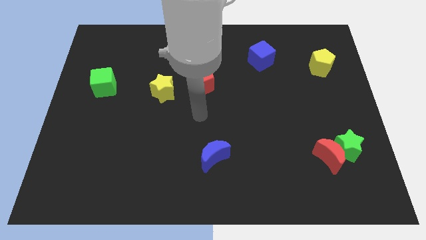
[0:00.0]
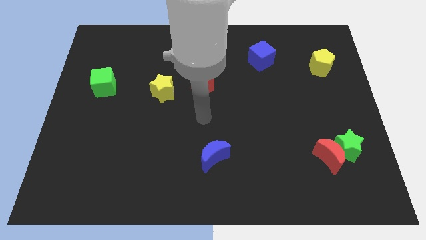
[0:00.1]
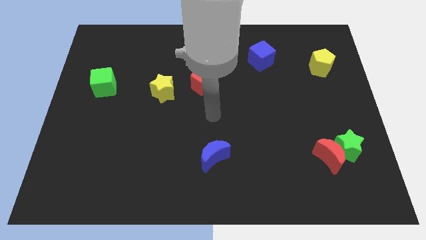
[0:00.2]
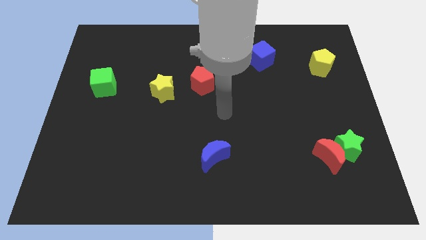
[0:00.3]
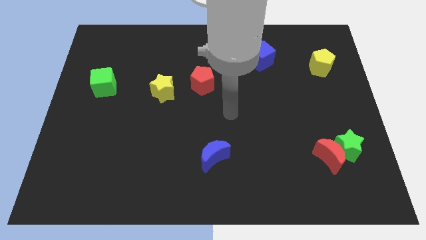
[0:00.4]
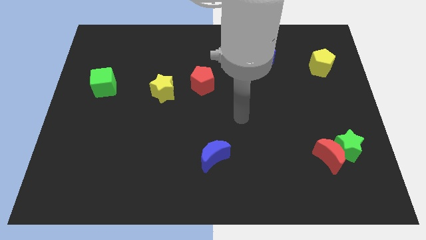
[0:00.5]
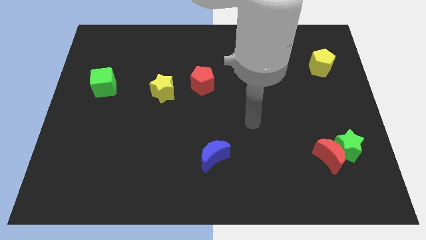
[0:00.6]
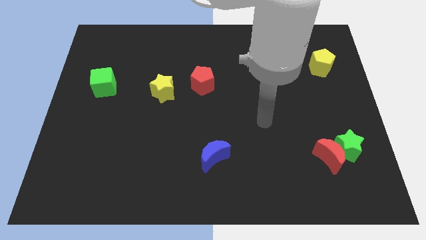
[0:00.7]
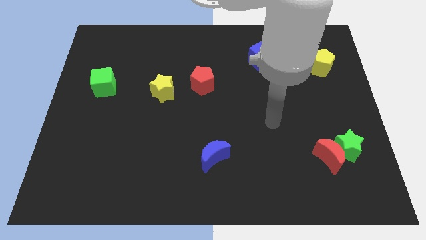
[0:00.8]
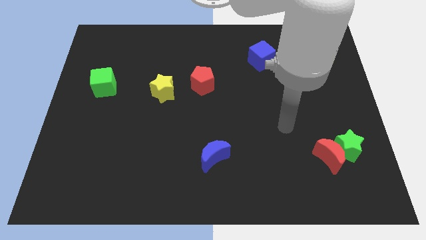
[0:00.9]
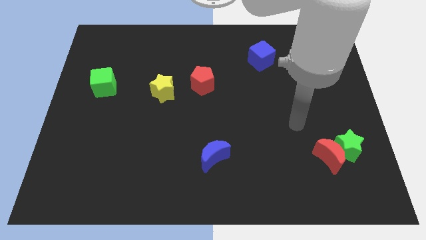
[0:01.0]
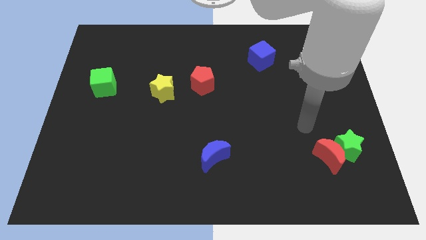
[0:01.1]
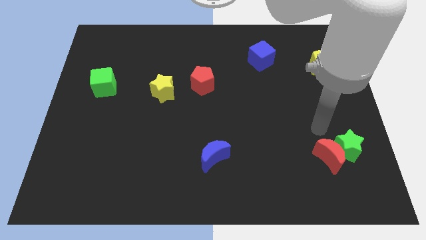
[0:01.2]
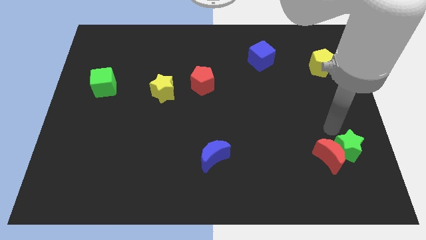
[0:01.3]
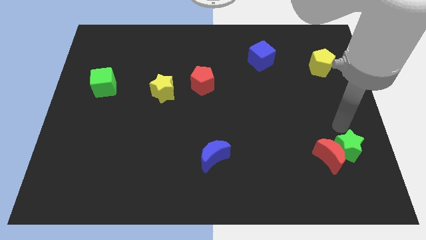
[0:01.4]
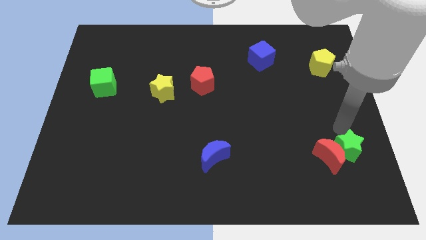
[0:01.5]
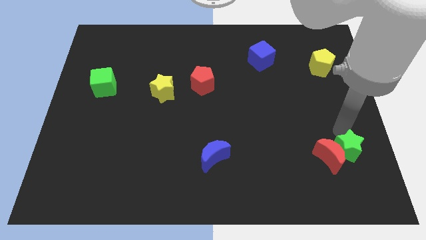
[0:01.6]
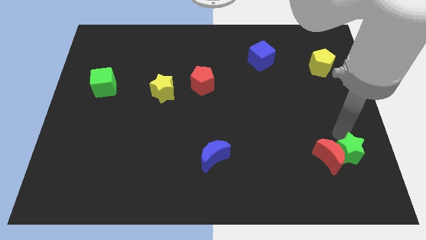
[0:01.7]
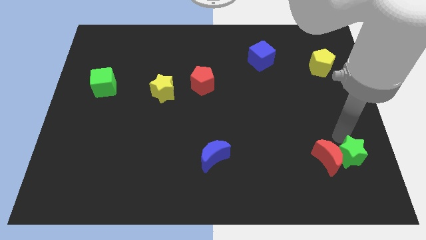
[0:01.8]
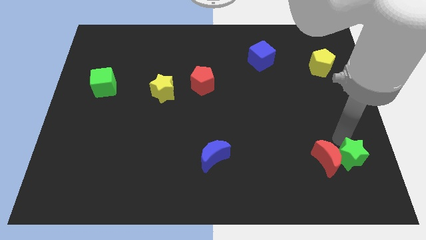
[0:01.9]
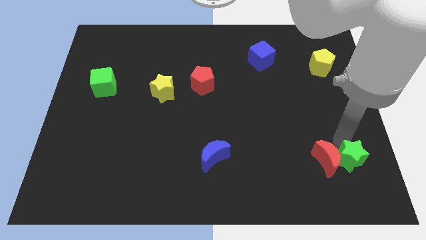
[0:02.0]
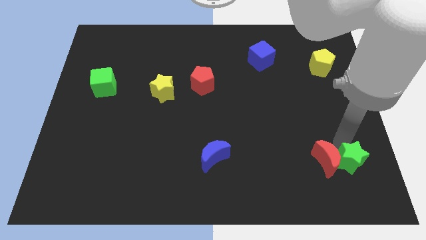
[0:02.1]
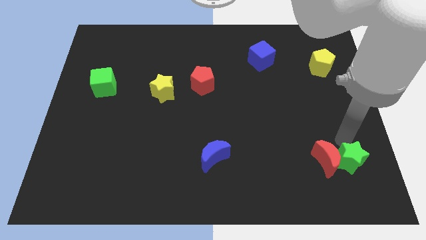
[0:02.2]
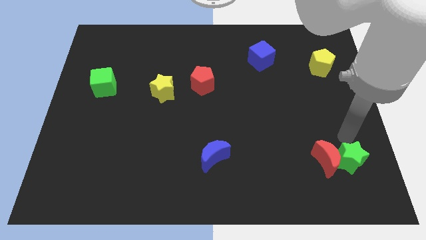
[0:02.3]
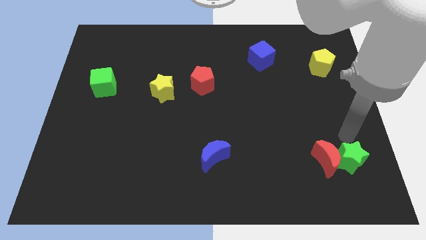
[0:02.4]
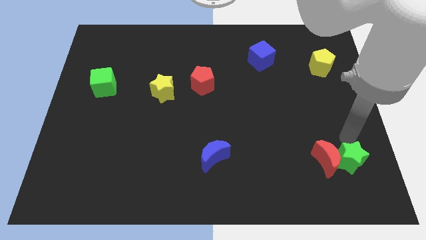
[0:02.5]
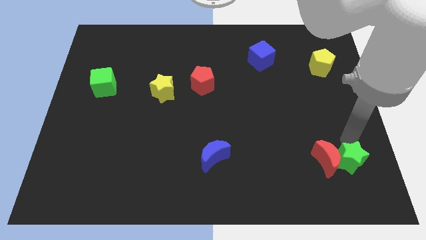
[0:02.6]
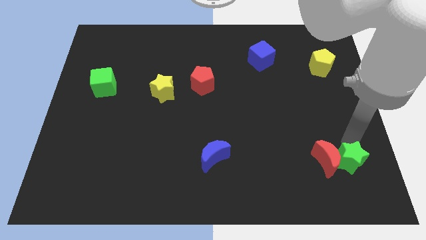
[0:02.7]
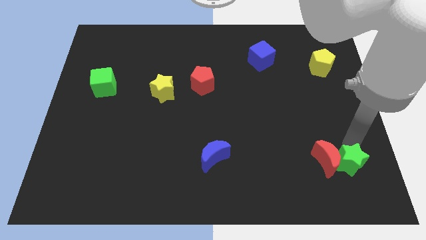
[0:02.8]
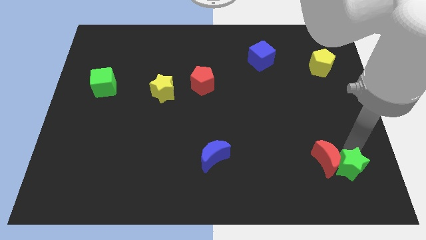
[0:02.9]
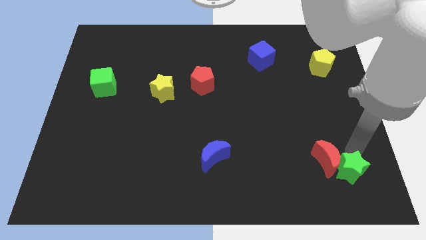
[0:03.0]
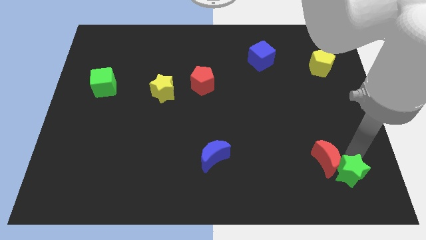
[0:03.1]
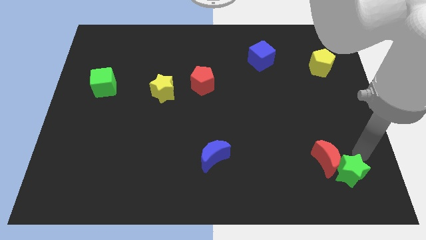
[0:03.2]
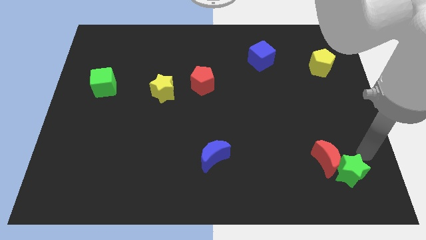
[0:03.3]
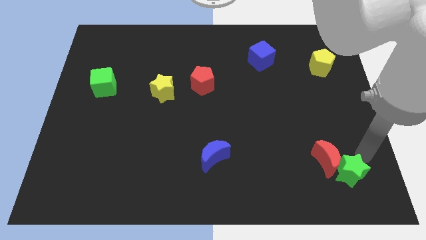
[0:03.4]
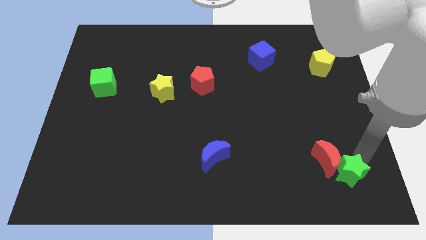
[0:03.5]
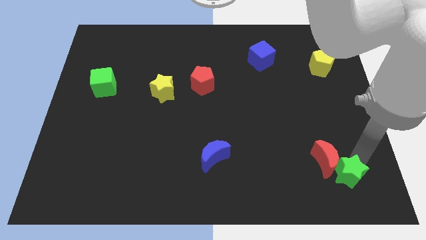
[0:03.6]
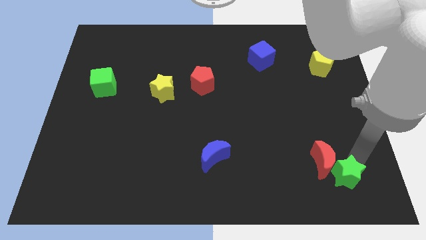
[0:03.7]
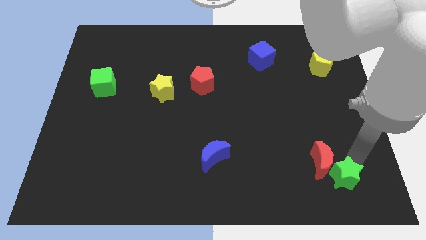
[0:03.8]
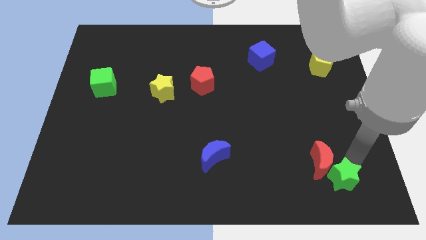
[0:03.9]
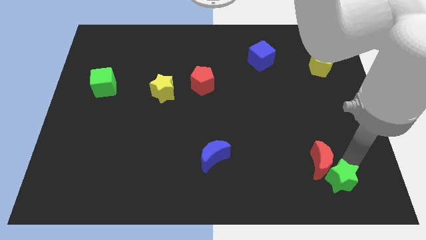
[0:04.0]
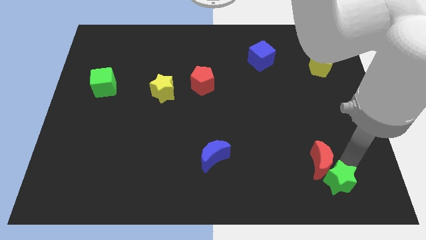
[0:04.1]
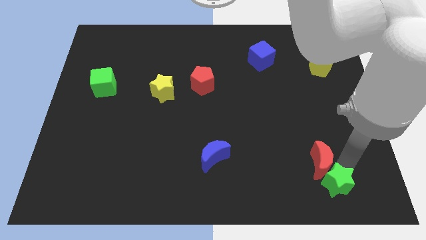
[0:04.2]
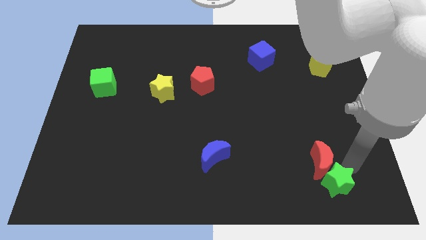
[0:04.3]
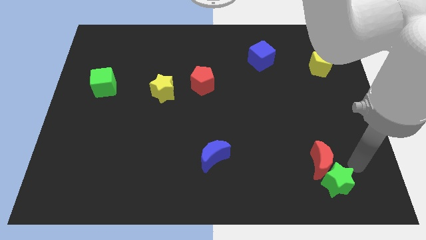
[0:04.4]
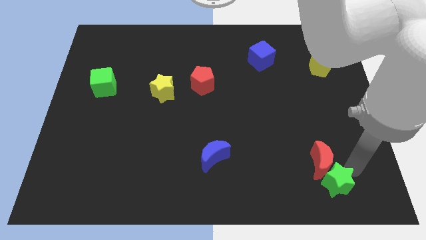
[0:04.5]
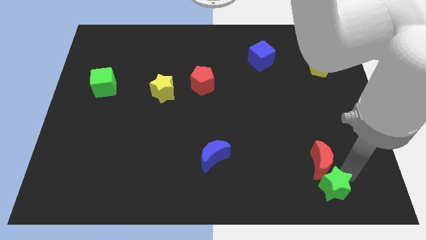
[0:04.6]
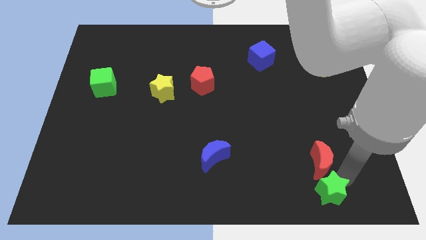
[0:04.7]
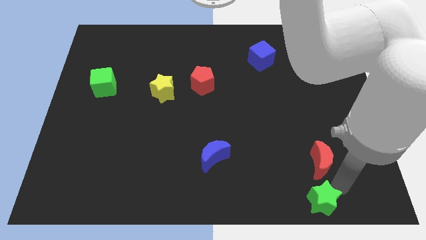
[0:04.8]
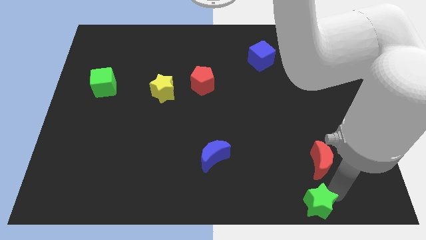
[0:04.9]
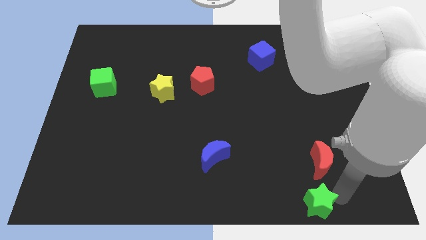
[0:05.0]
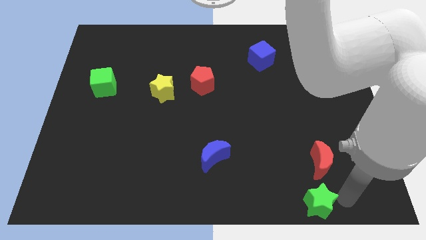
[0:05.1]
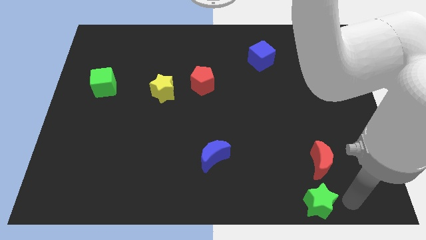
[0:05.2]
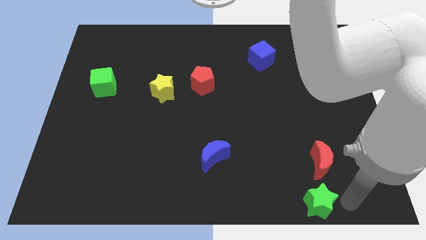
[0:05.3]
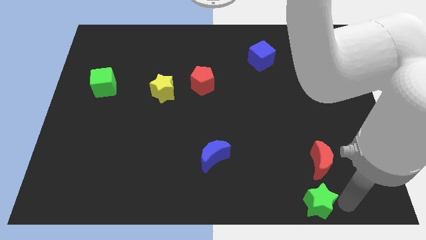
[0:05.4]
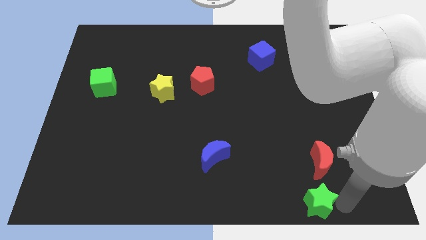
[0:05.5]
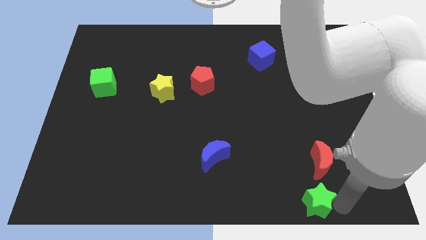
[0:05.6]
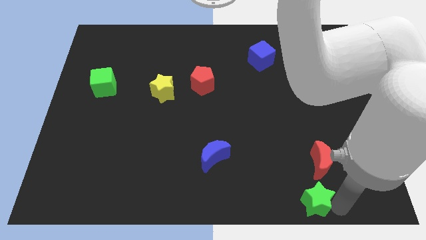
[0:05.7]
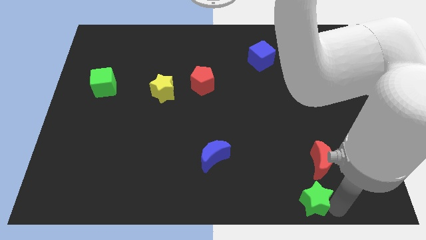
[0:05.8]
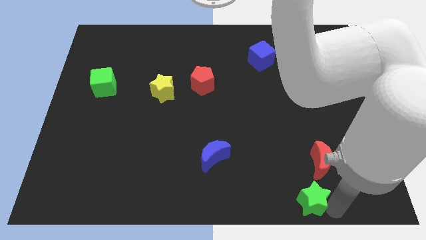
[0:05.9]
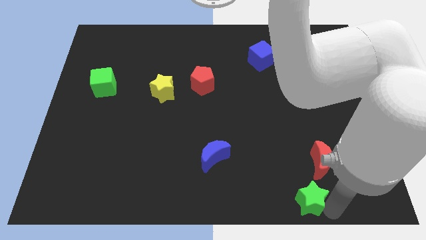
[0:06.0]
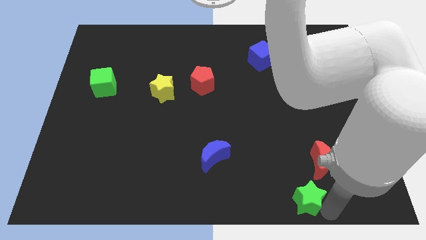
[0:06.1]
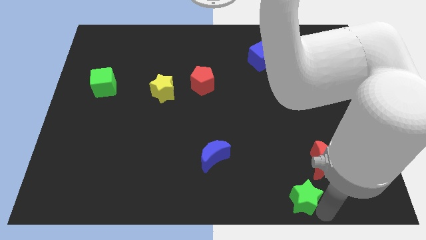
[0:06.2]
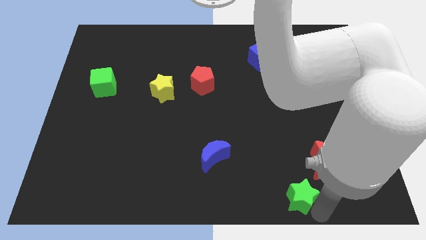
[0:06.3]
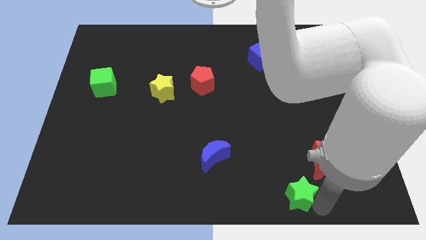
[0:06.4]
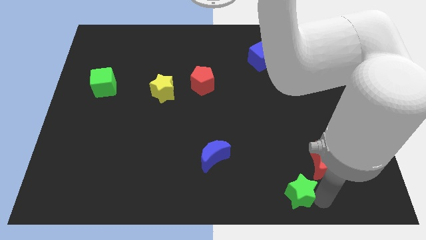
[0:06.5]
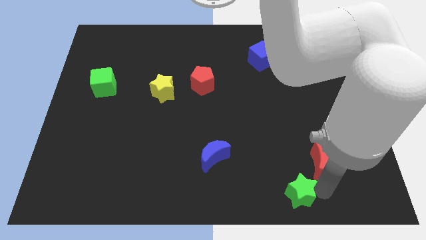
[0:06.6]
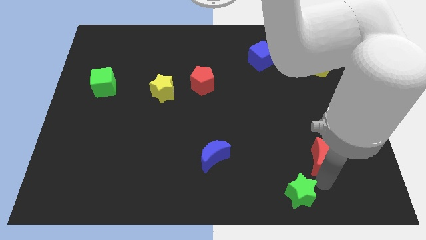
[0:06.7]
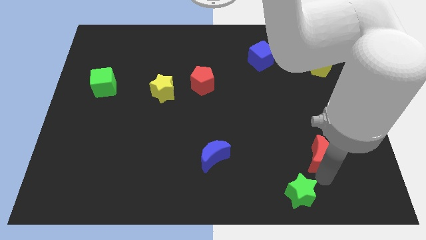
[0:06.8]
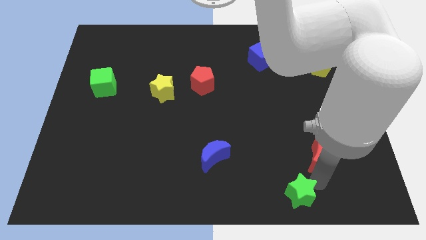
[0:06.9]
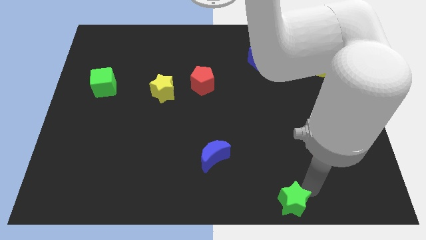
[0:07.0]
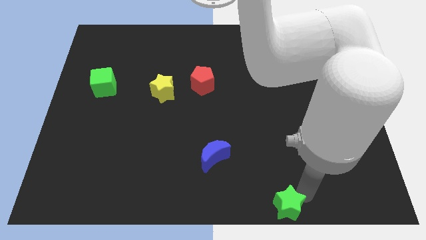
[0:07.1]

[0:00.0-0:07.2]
move the green star to the bottom side
